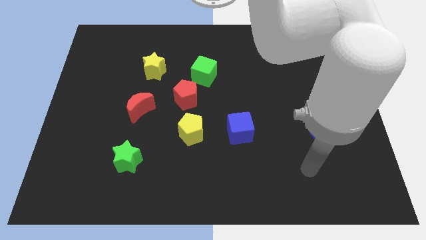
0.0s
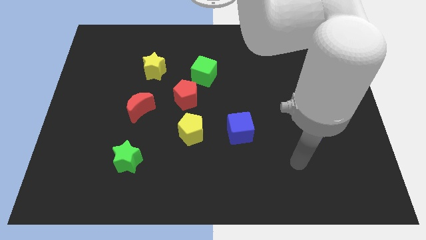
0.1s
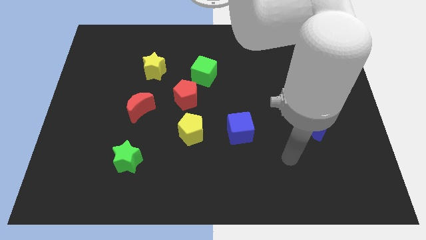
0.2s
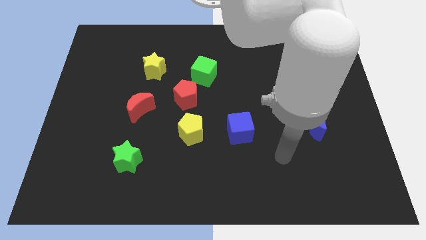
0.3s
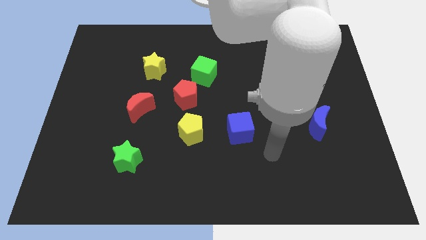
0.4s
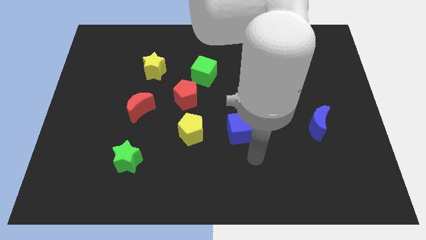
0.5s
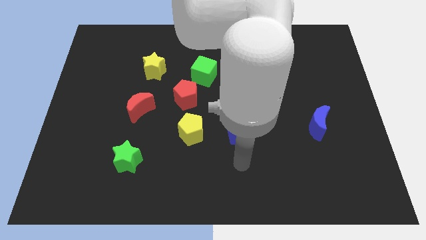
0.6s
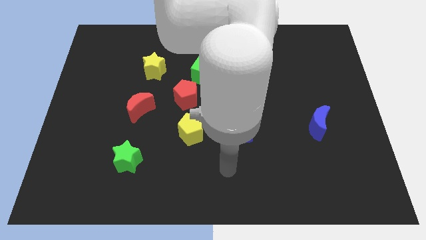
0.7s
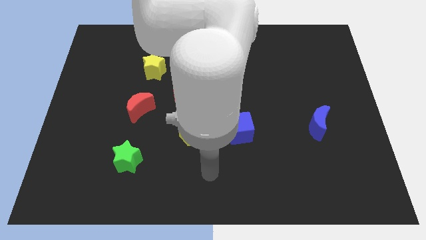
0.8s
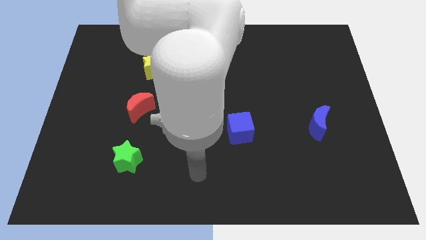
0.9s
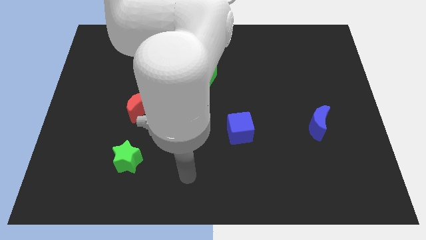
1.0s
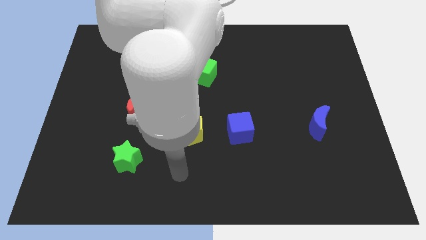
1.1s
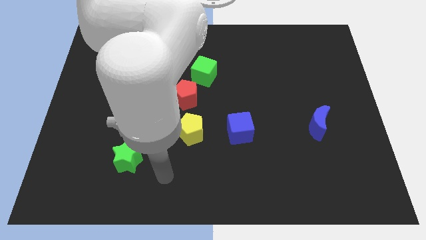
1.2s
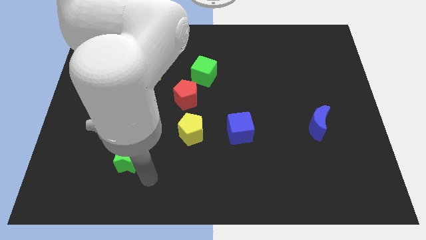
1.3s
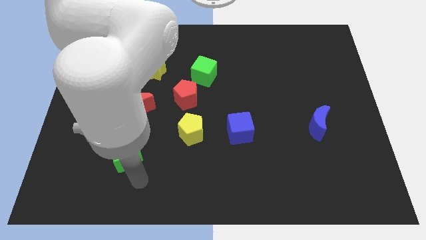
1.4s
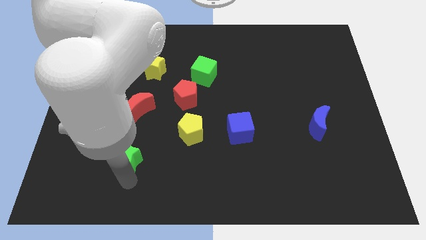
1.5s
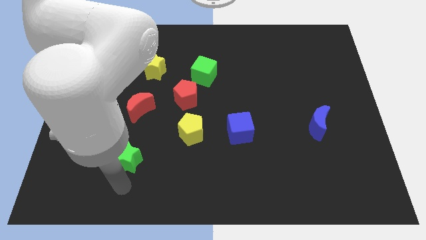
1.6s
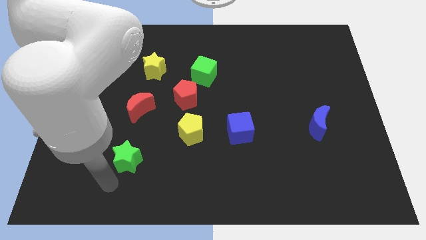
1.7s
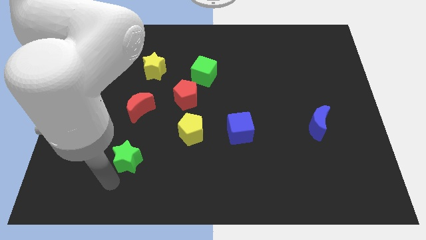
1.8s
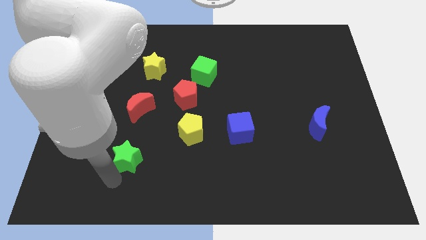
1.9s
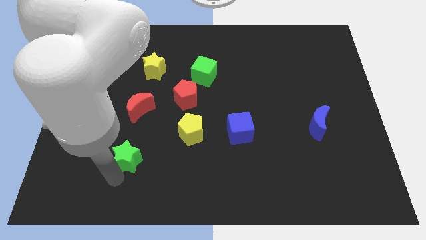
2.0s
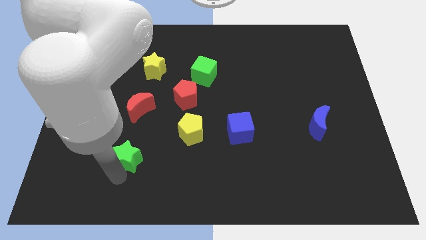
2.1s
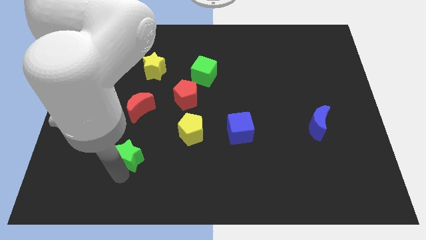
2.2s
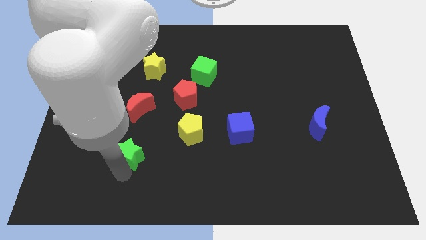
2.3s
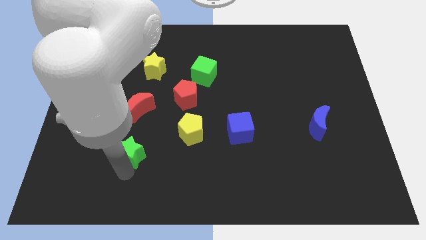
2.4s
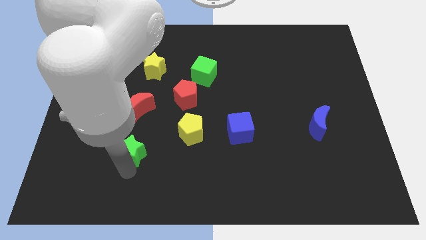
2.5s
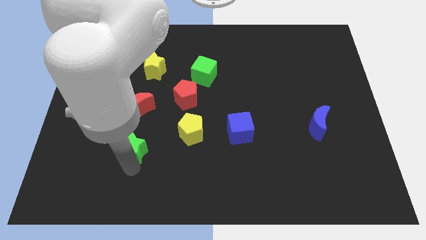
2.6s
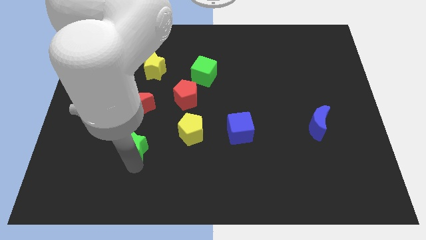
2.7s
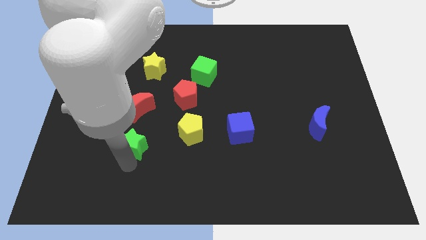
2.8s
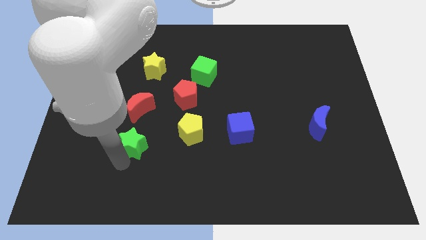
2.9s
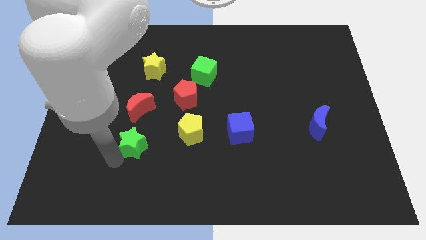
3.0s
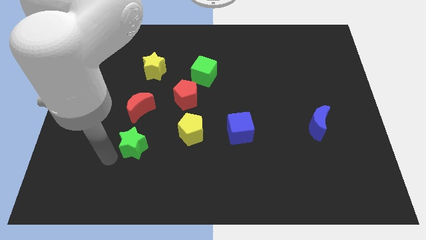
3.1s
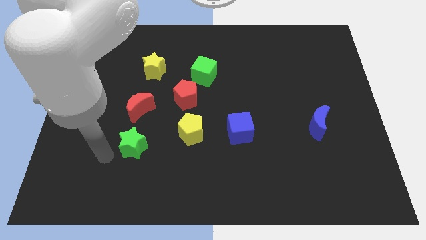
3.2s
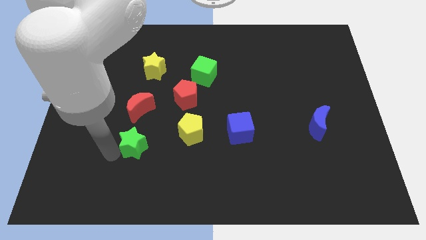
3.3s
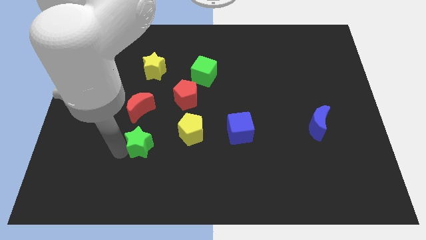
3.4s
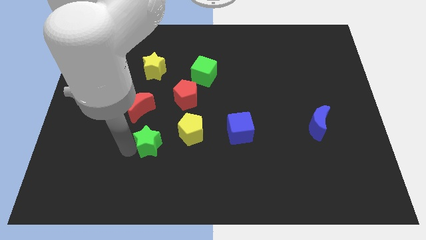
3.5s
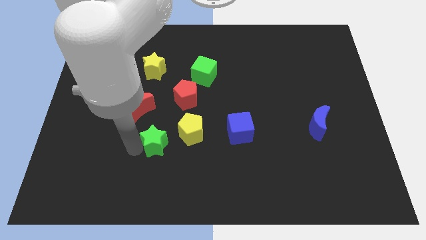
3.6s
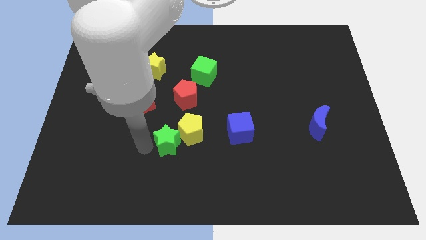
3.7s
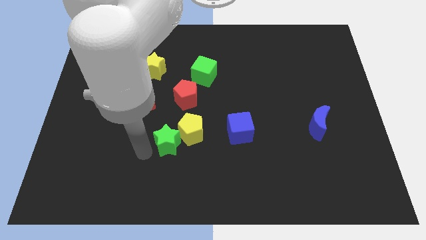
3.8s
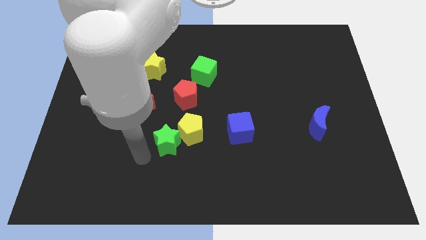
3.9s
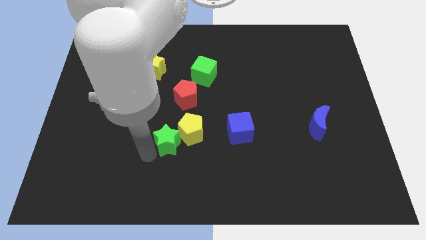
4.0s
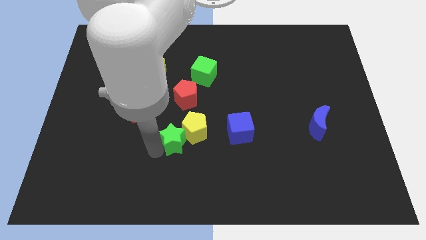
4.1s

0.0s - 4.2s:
slide the green star to the left of the blue cube

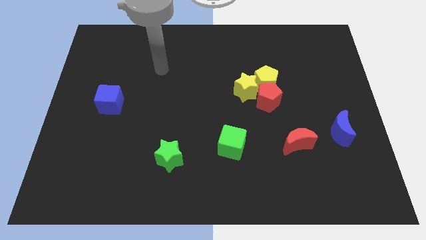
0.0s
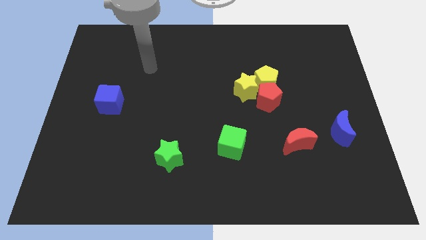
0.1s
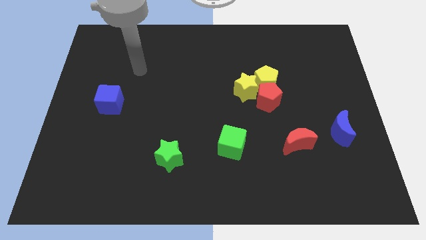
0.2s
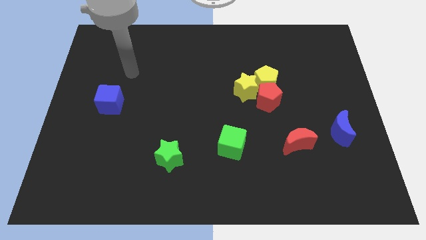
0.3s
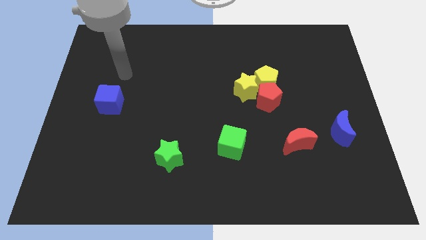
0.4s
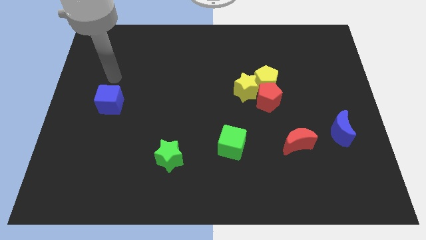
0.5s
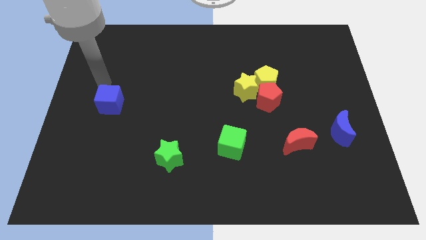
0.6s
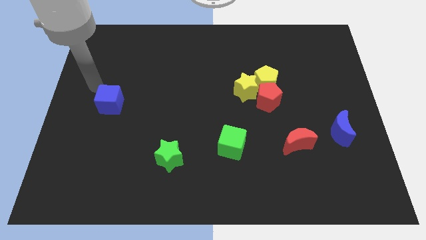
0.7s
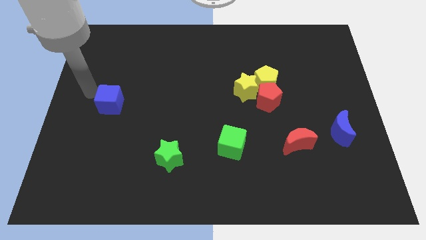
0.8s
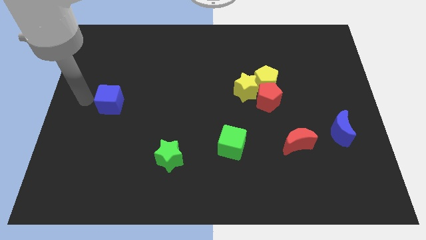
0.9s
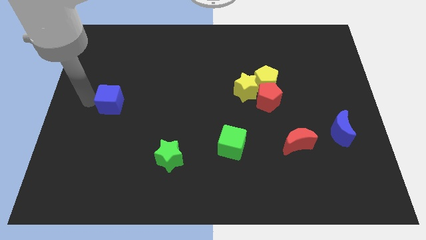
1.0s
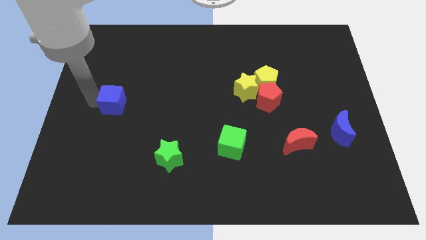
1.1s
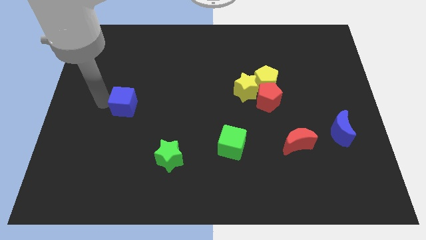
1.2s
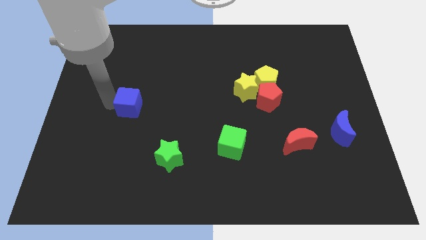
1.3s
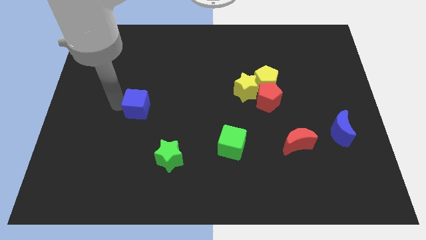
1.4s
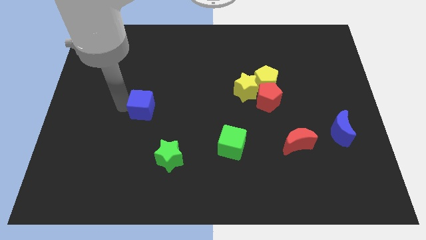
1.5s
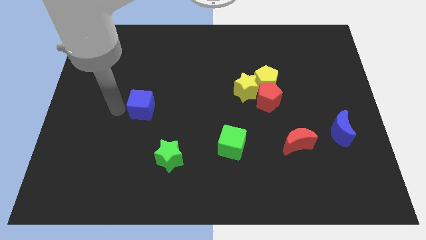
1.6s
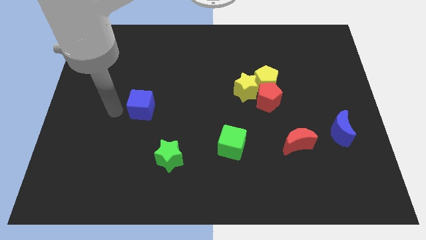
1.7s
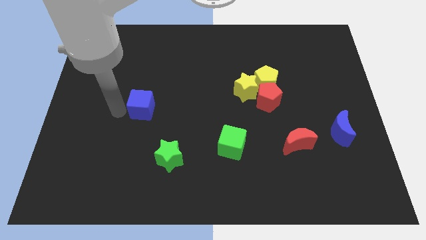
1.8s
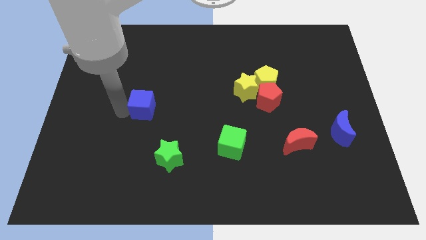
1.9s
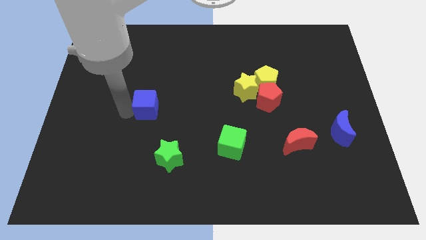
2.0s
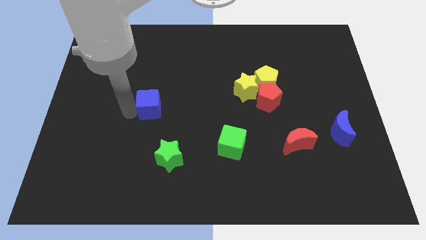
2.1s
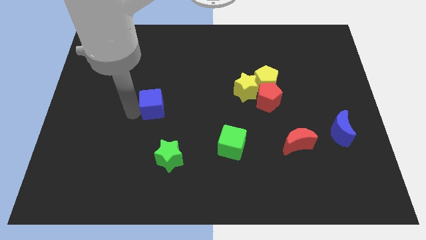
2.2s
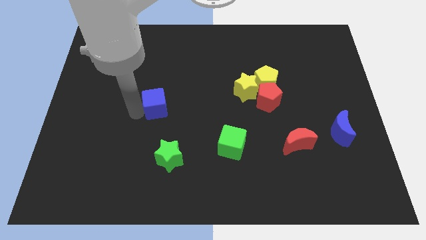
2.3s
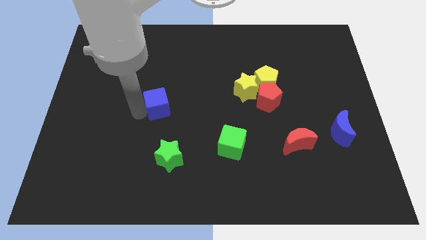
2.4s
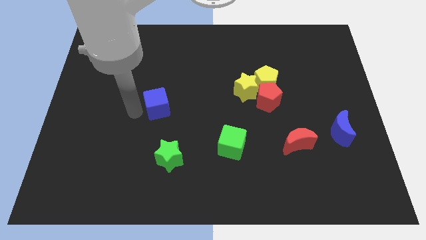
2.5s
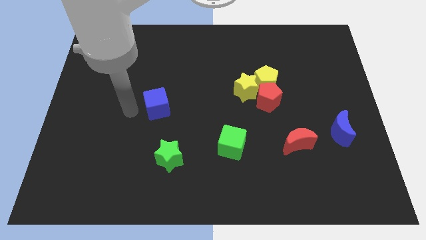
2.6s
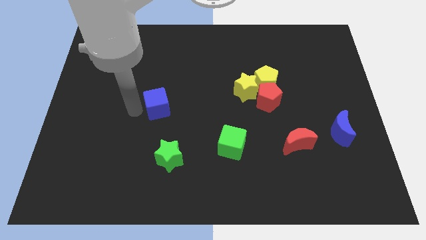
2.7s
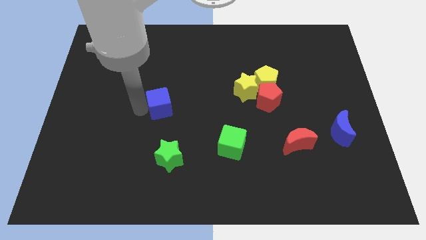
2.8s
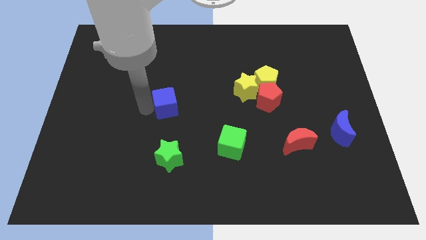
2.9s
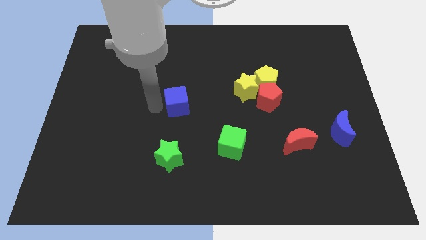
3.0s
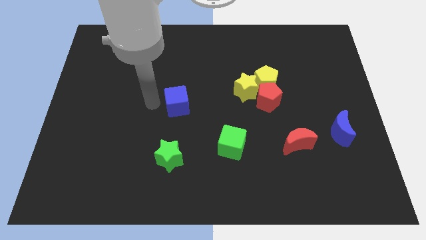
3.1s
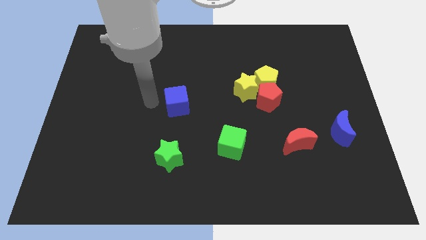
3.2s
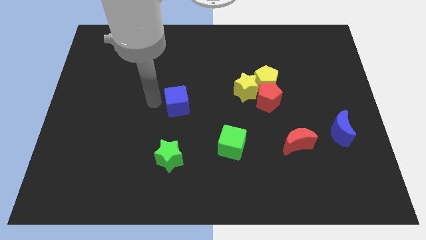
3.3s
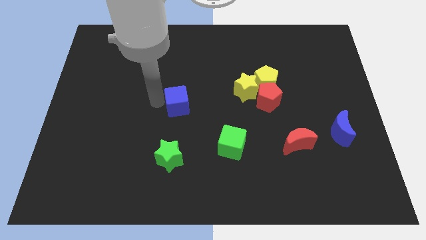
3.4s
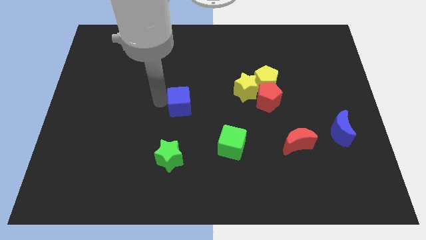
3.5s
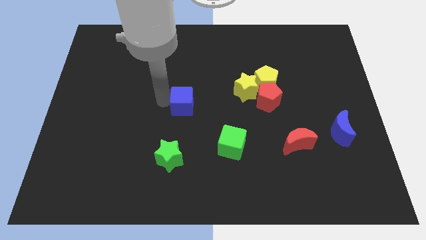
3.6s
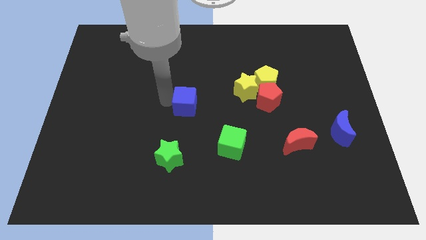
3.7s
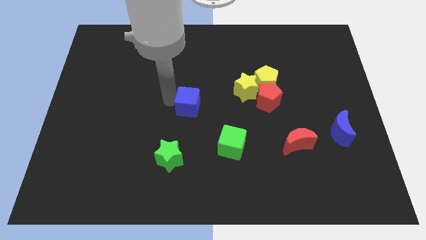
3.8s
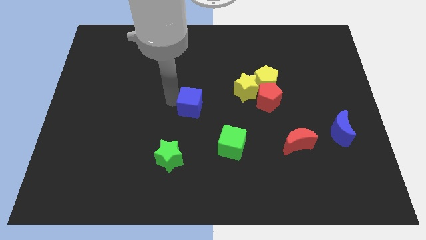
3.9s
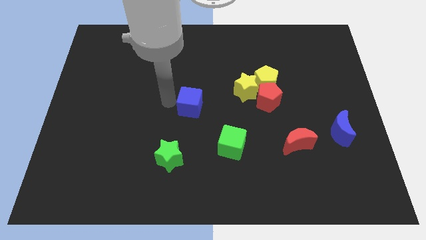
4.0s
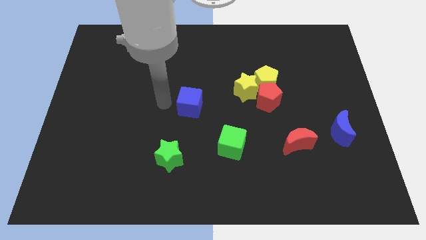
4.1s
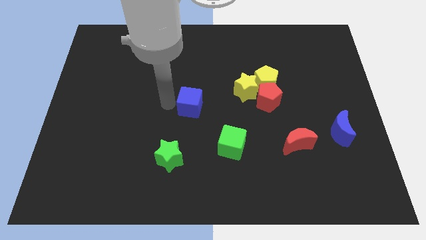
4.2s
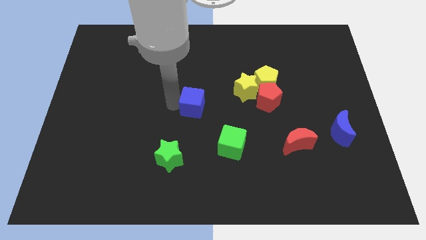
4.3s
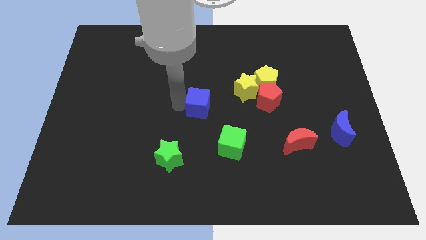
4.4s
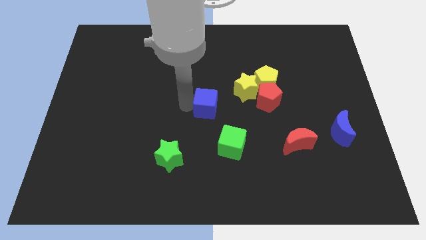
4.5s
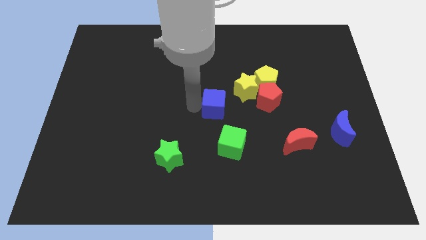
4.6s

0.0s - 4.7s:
push the blue cube to the top side of the green cube
